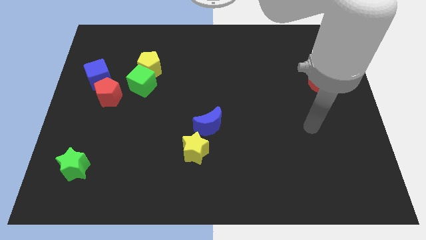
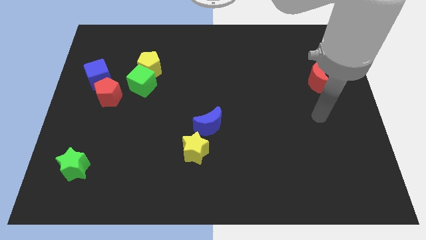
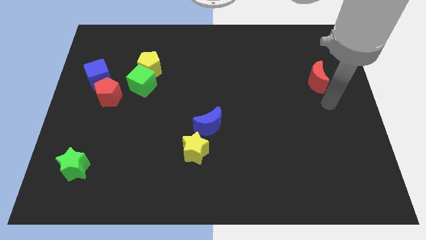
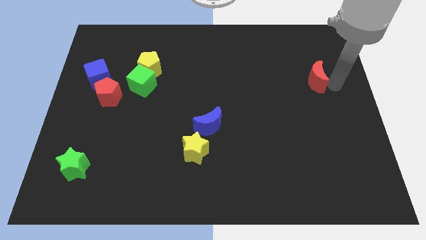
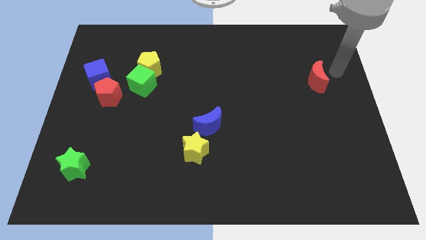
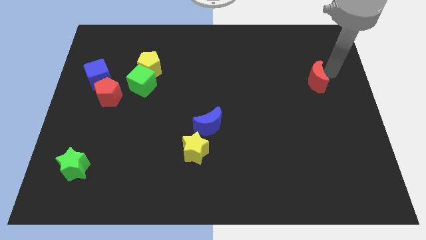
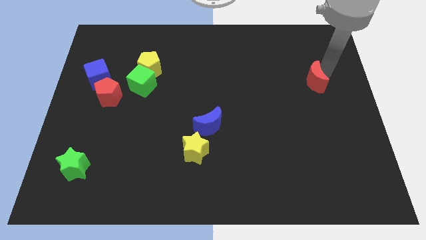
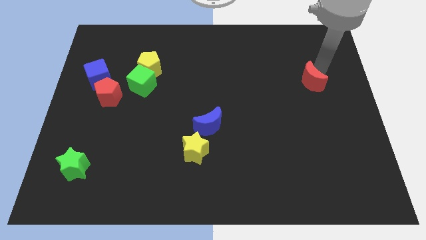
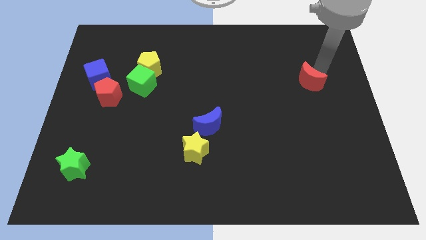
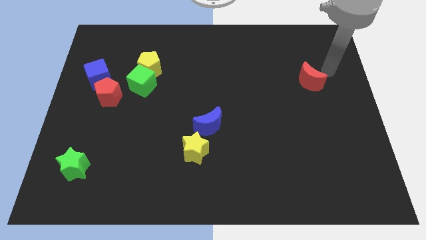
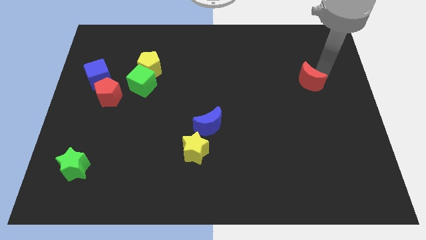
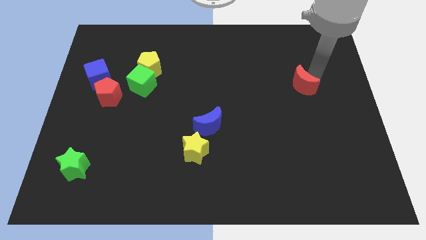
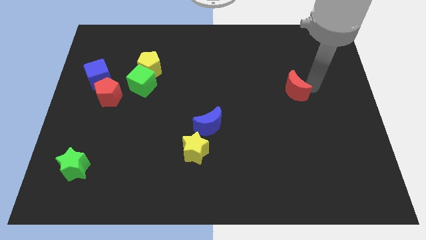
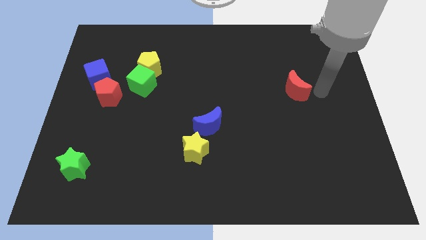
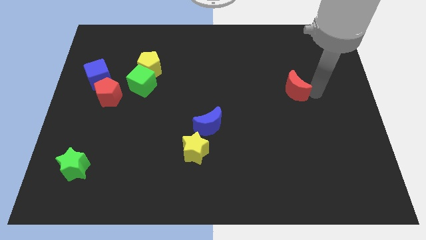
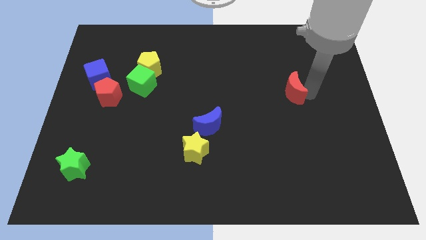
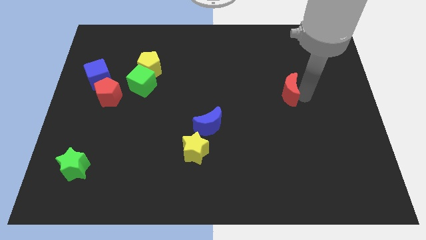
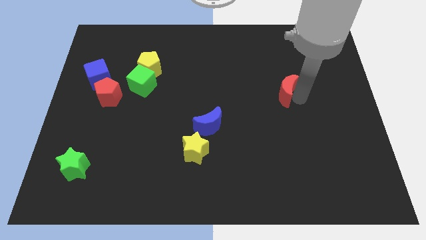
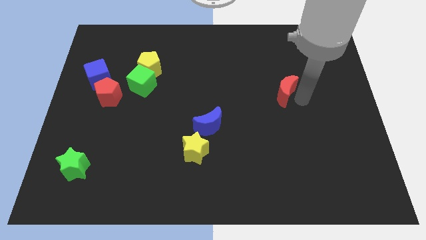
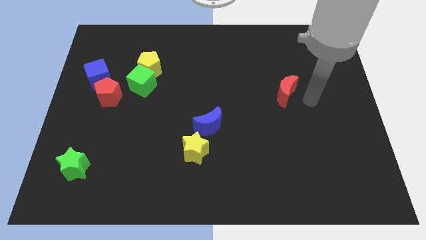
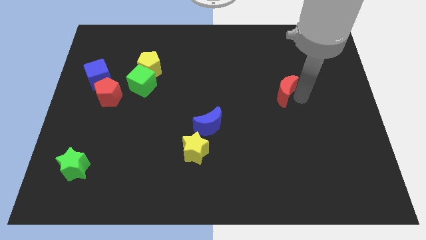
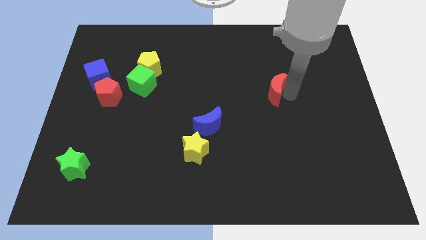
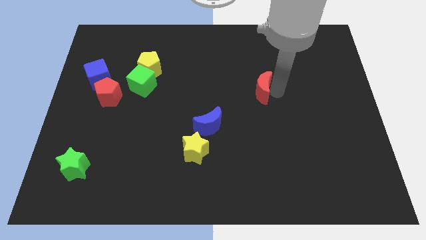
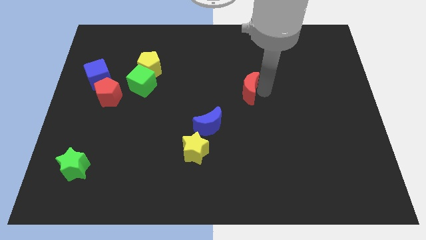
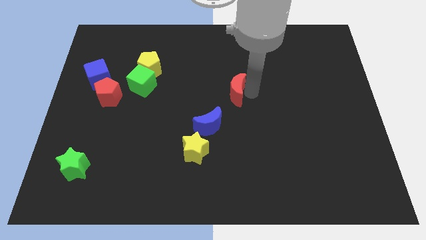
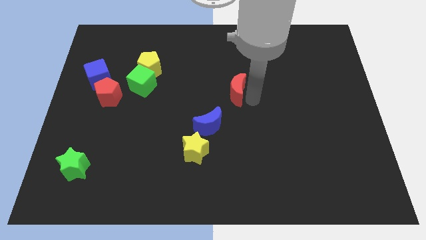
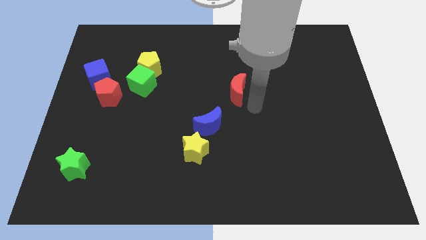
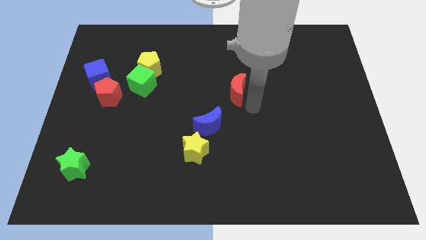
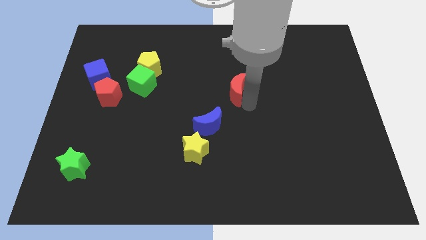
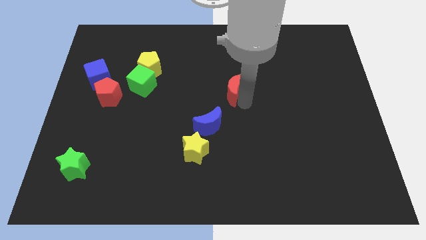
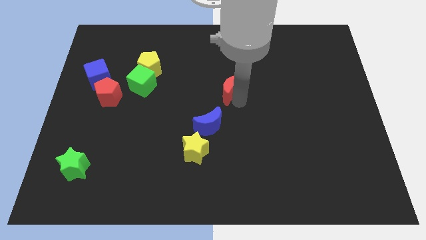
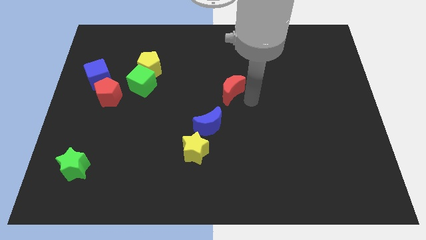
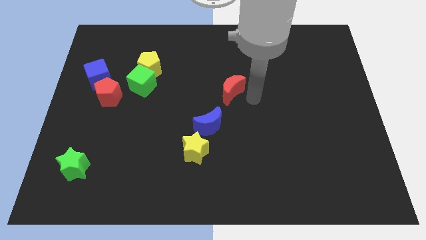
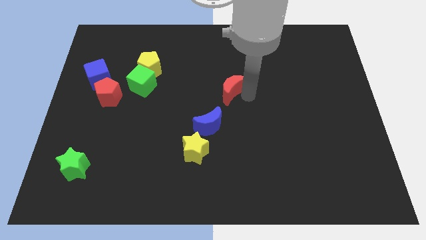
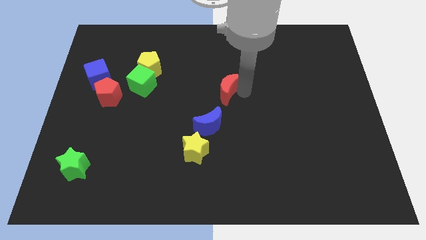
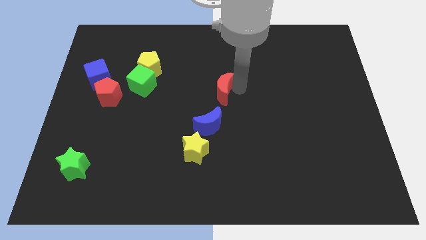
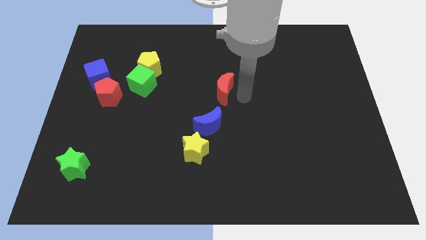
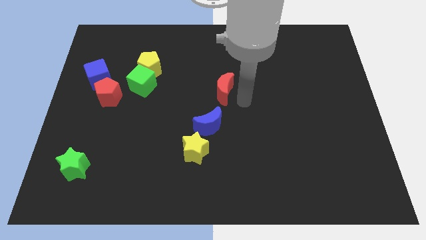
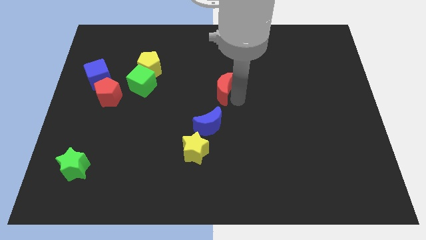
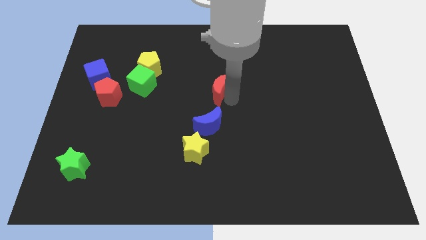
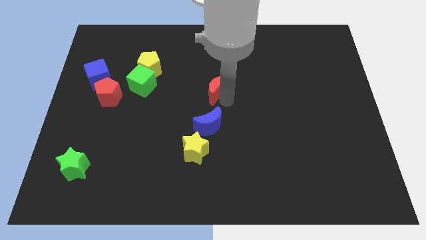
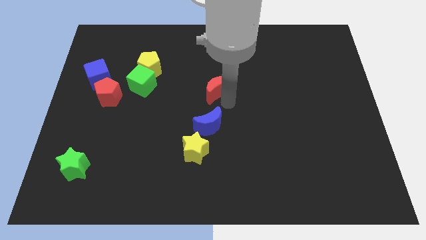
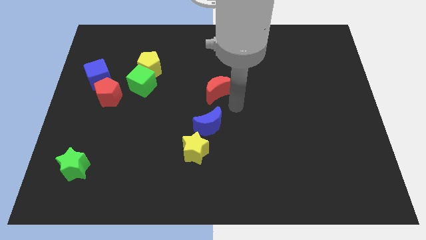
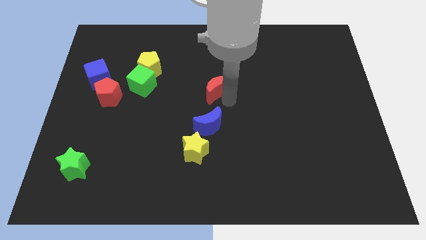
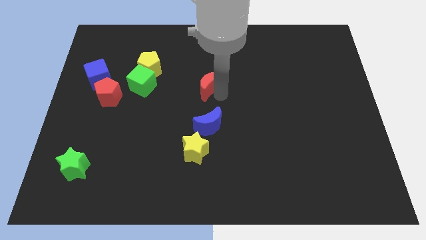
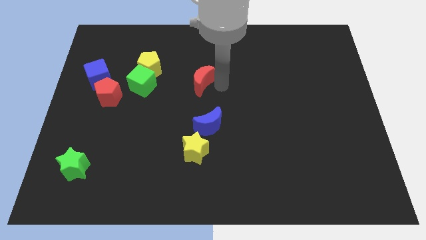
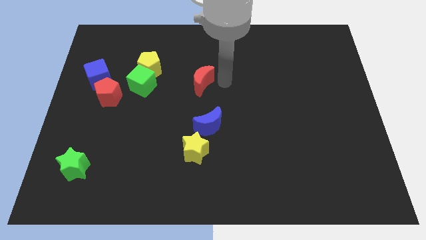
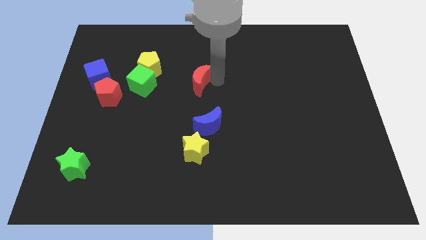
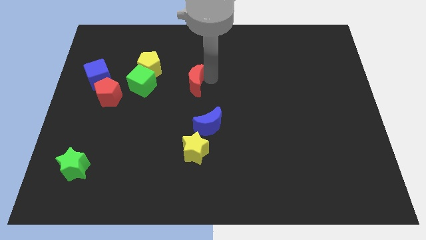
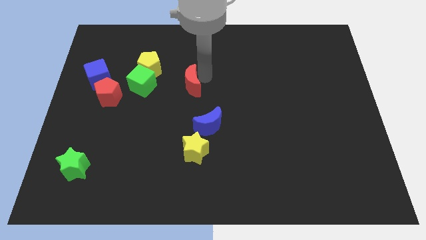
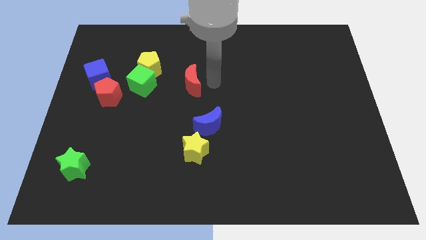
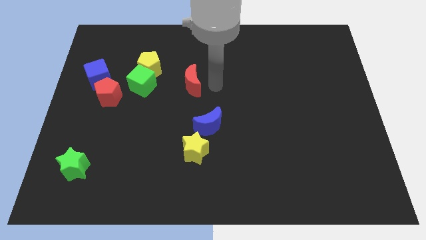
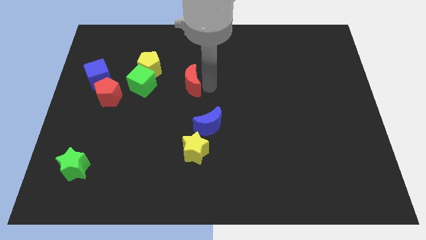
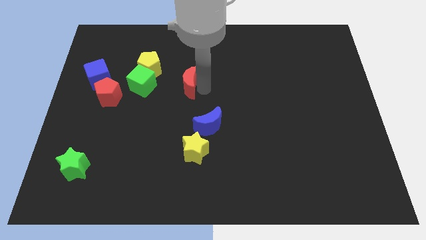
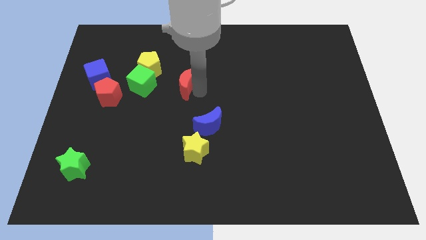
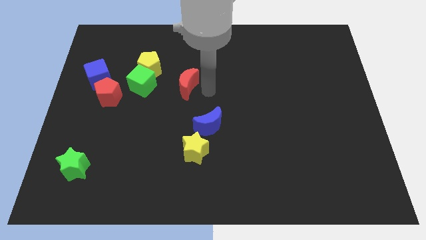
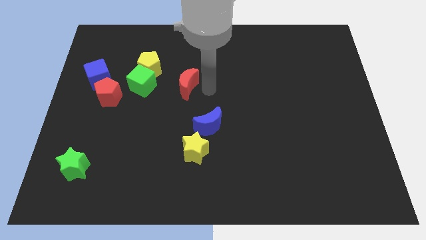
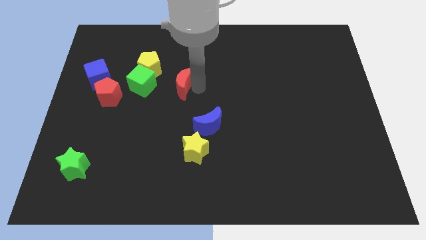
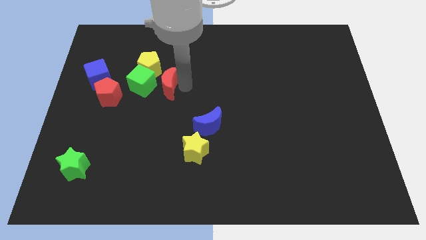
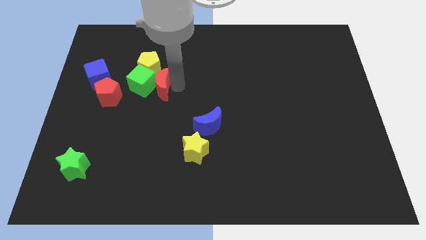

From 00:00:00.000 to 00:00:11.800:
put the red moon to the green cube

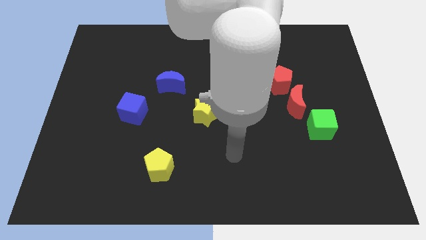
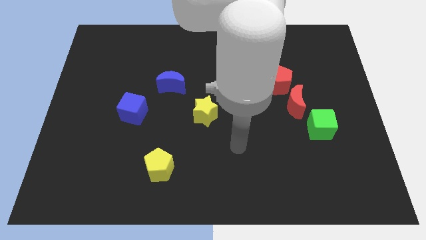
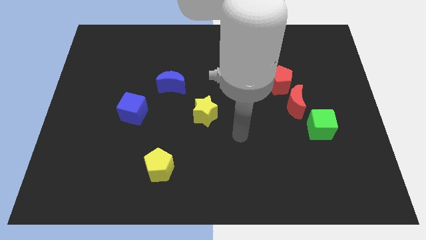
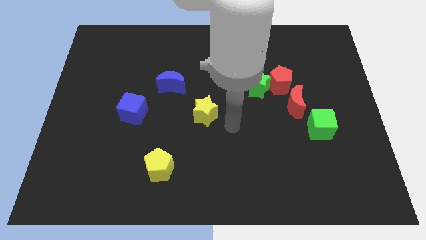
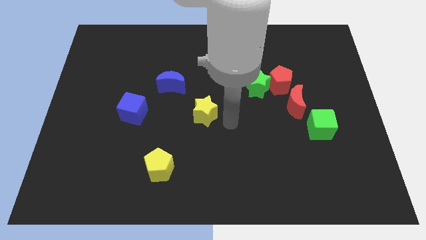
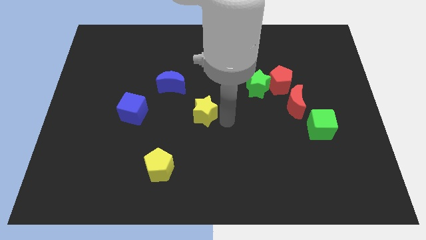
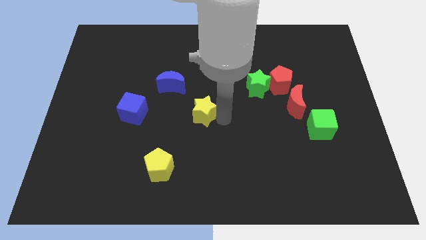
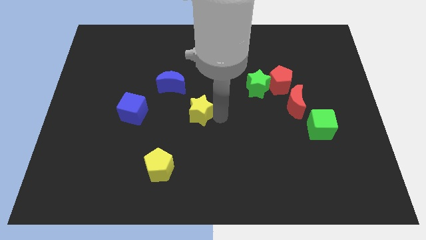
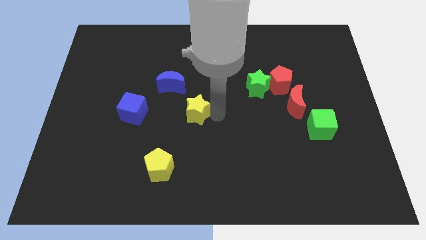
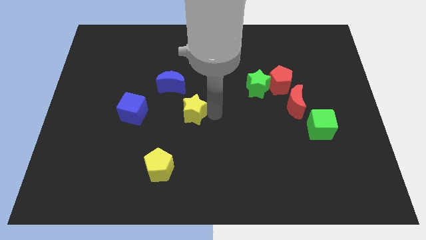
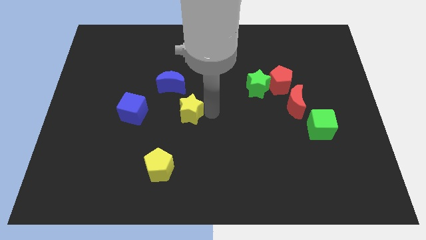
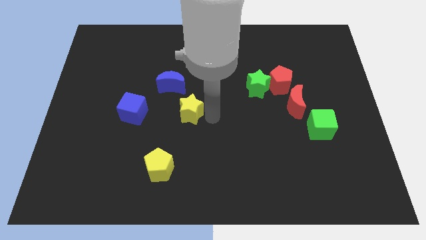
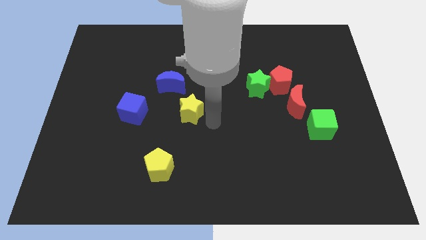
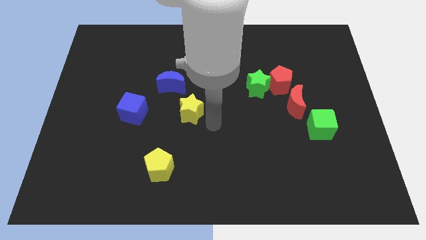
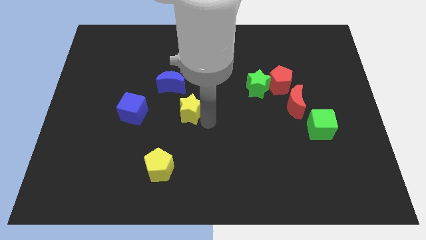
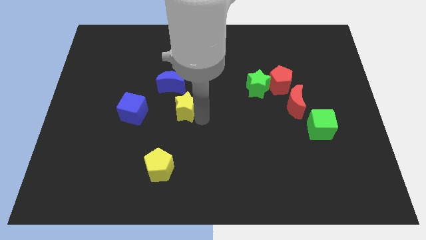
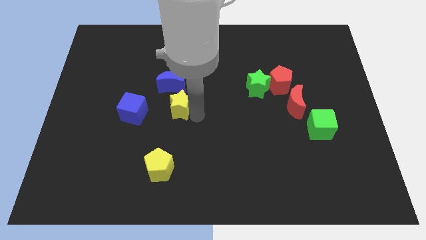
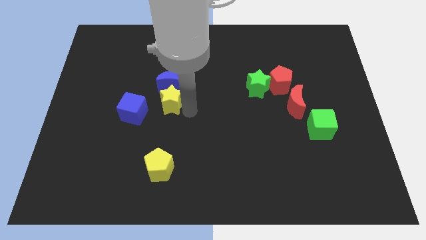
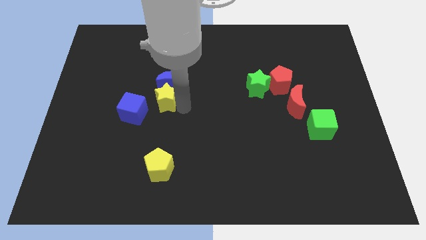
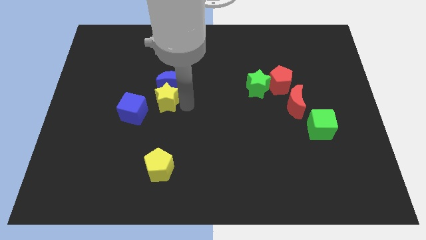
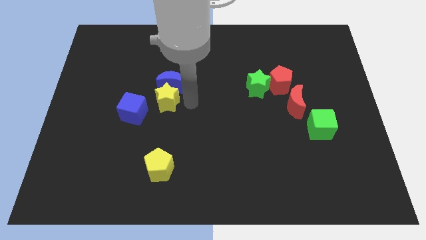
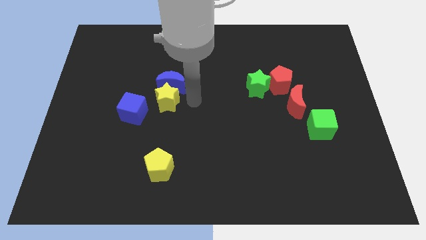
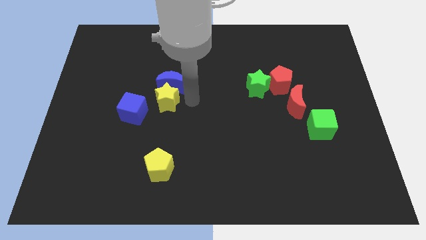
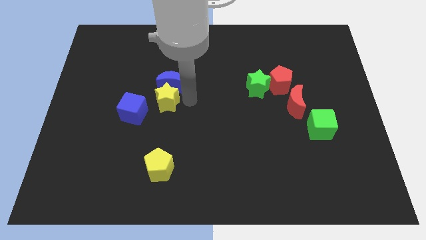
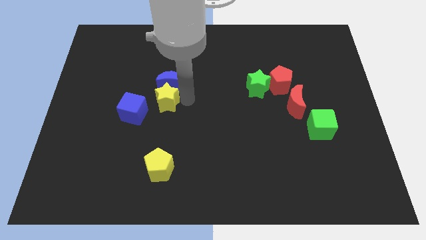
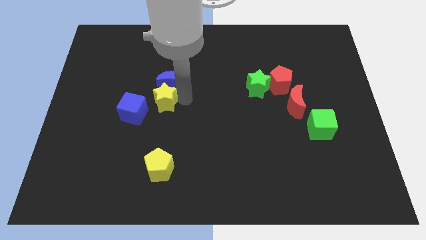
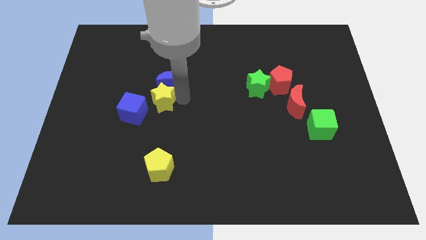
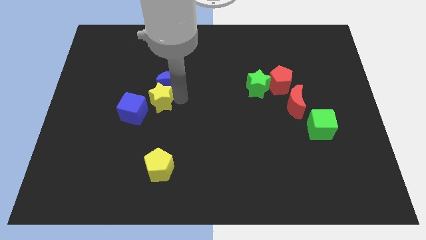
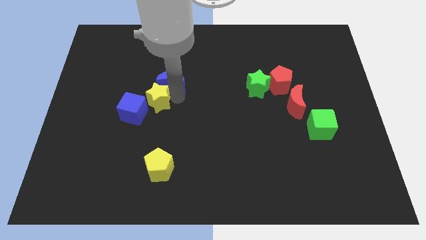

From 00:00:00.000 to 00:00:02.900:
move the yellow star close to the blue cube
